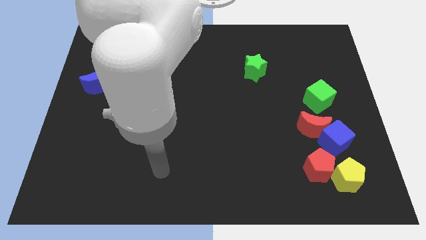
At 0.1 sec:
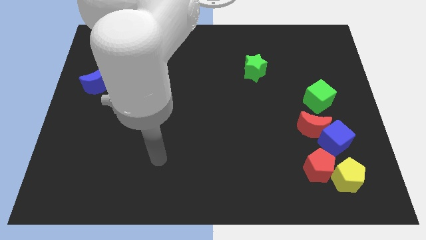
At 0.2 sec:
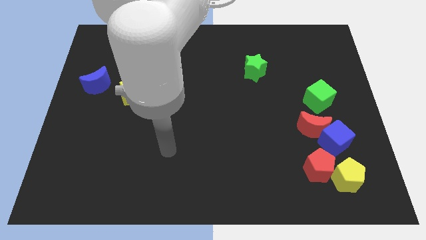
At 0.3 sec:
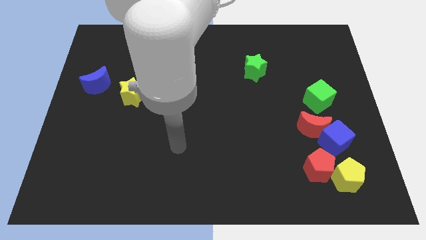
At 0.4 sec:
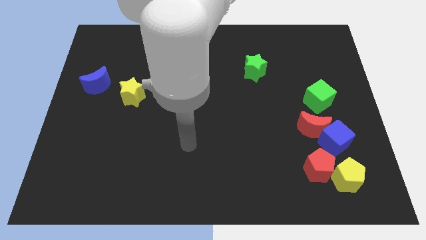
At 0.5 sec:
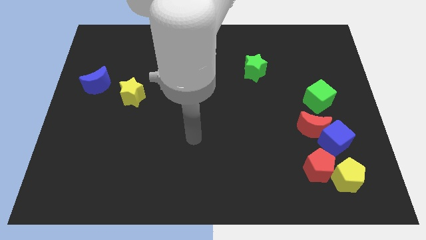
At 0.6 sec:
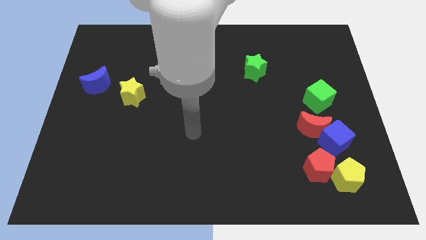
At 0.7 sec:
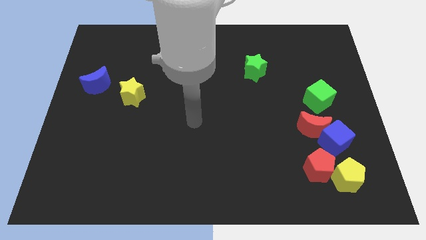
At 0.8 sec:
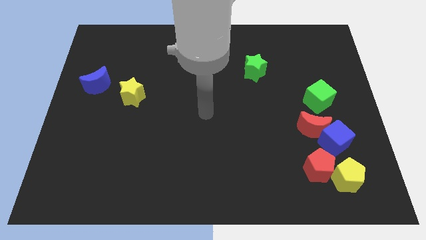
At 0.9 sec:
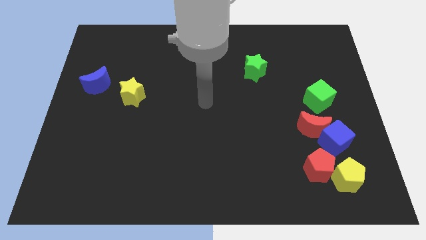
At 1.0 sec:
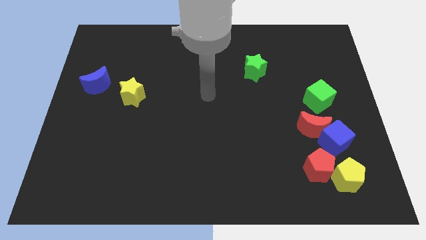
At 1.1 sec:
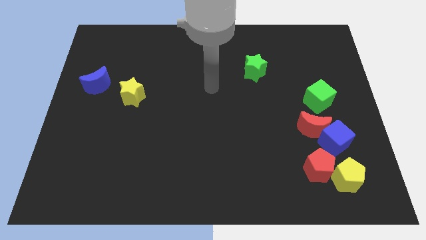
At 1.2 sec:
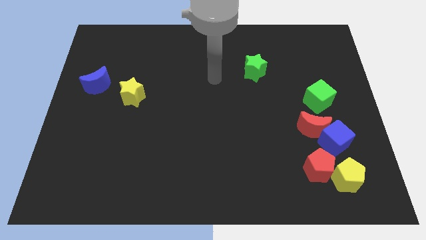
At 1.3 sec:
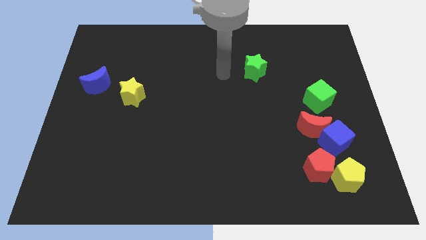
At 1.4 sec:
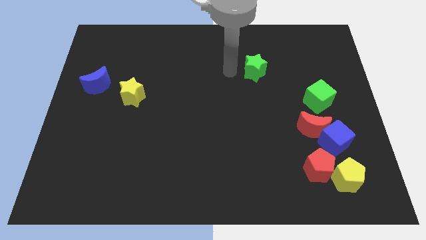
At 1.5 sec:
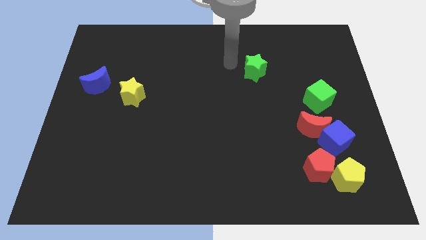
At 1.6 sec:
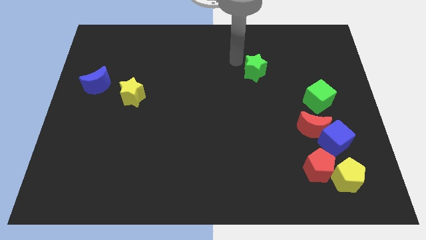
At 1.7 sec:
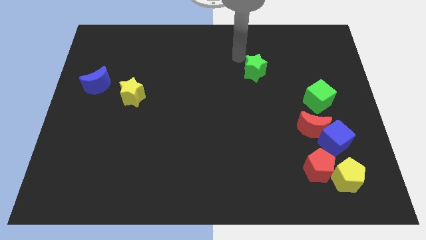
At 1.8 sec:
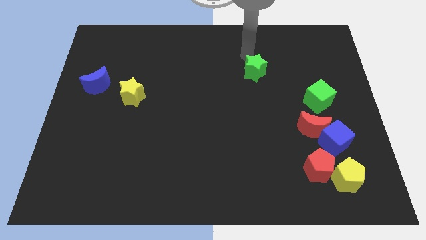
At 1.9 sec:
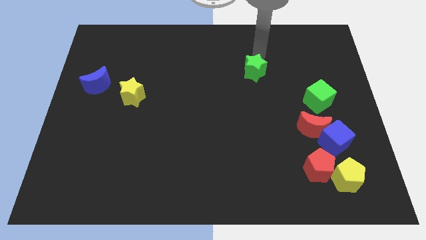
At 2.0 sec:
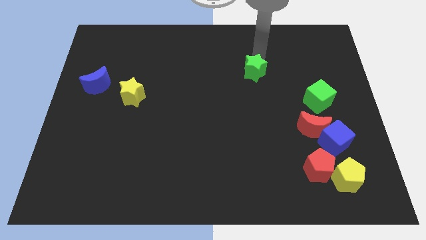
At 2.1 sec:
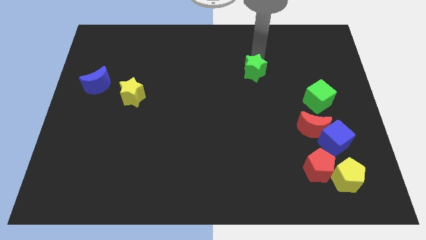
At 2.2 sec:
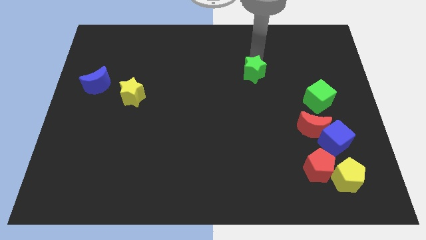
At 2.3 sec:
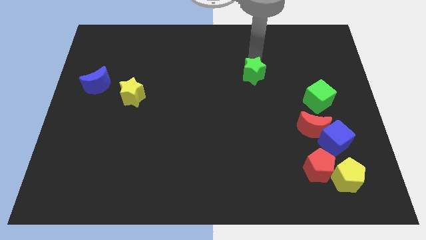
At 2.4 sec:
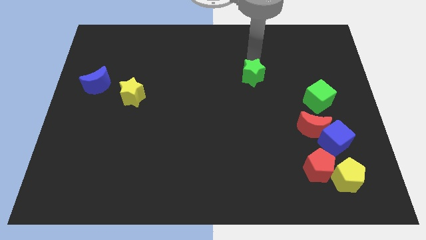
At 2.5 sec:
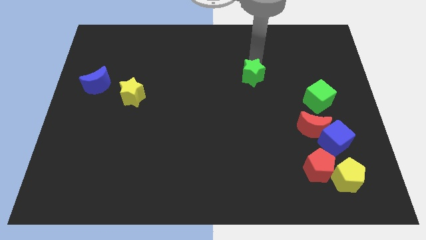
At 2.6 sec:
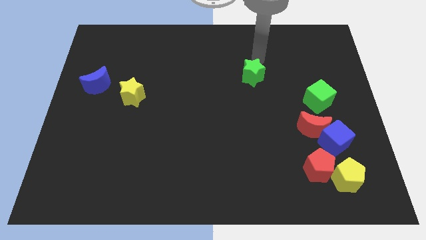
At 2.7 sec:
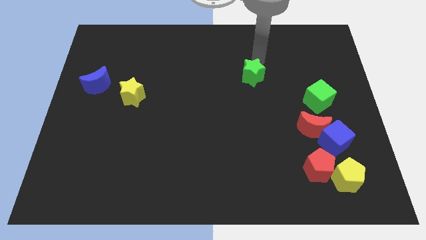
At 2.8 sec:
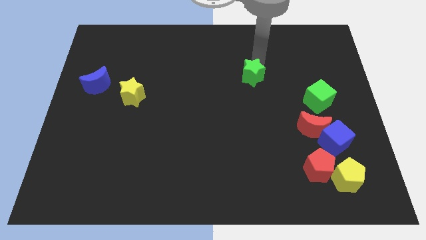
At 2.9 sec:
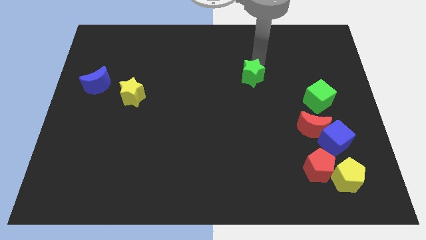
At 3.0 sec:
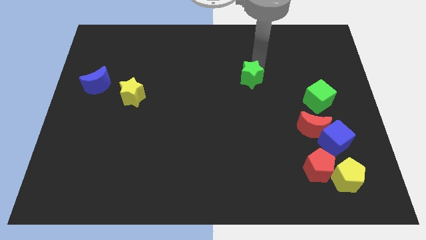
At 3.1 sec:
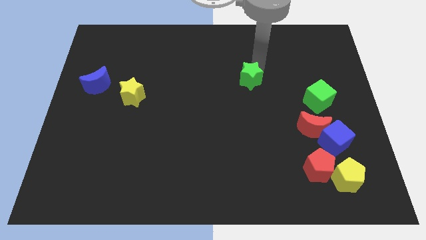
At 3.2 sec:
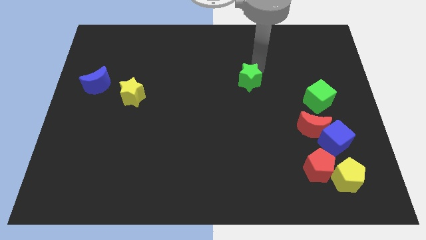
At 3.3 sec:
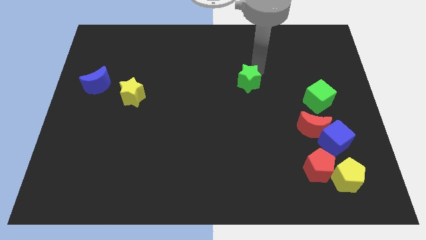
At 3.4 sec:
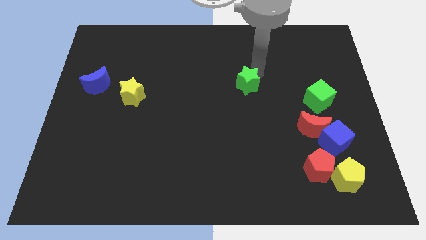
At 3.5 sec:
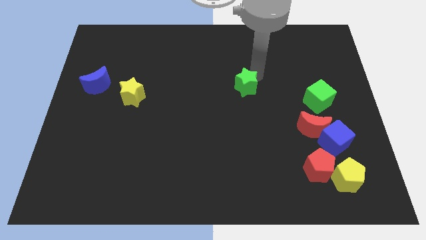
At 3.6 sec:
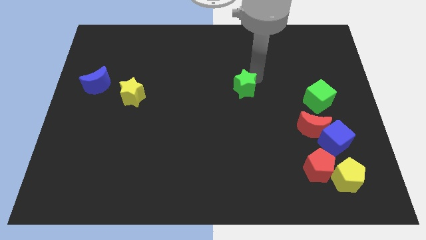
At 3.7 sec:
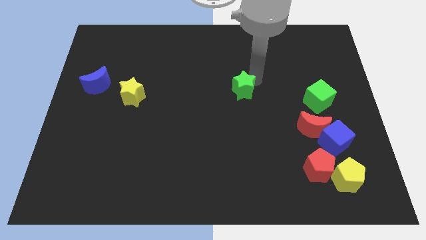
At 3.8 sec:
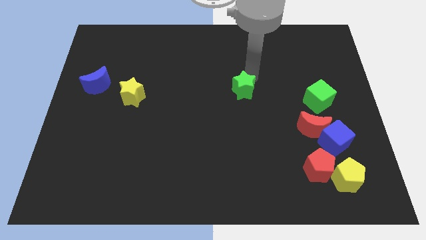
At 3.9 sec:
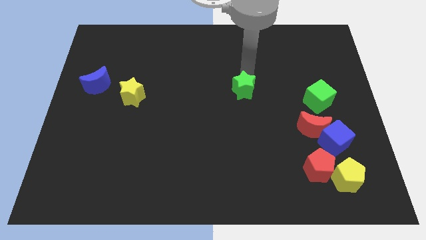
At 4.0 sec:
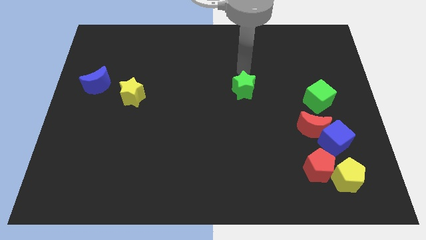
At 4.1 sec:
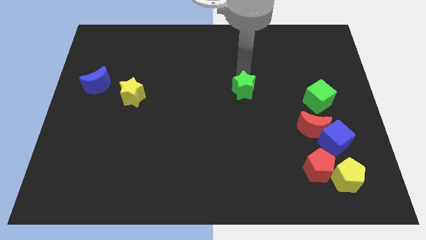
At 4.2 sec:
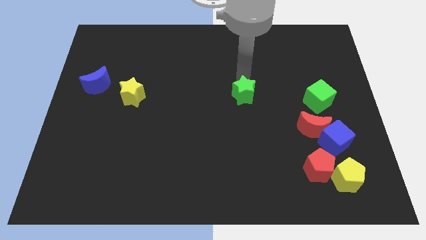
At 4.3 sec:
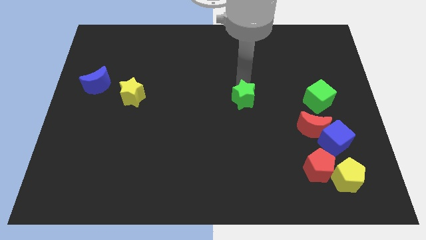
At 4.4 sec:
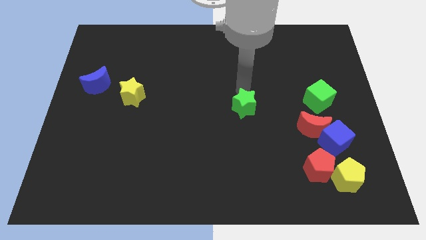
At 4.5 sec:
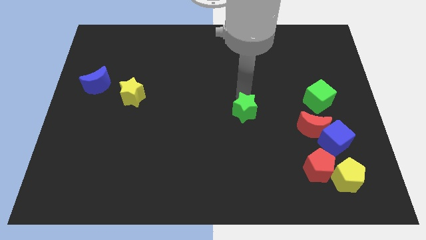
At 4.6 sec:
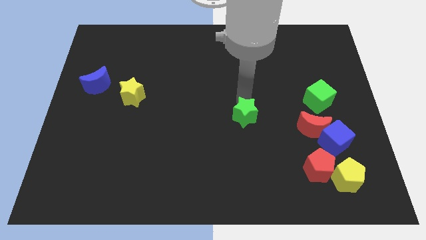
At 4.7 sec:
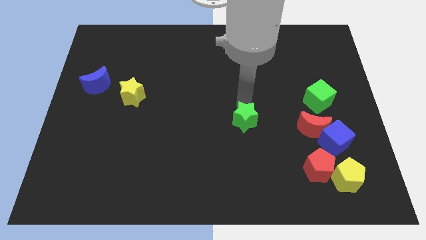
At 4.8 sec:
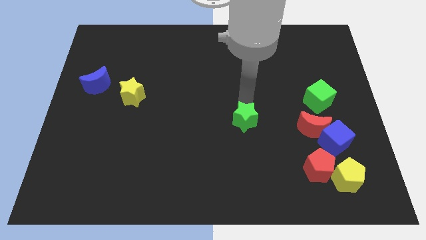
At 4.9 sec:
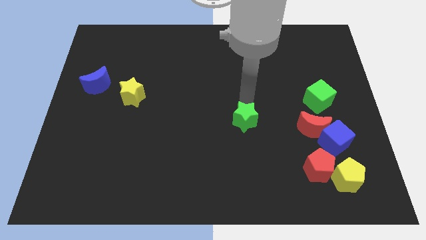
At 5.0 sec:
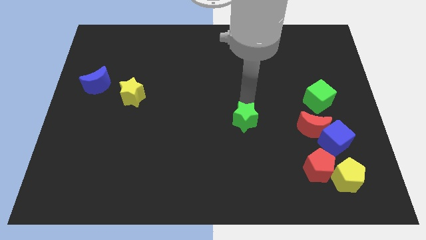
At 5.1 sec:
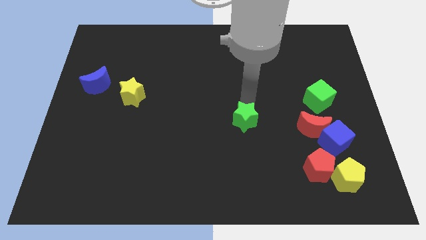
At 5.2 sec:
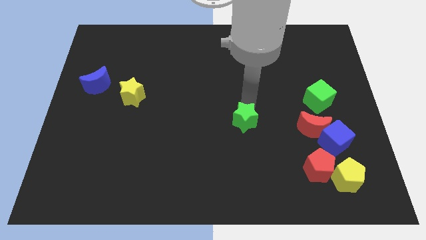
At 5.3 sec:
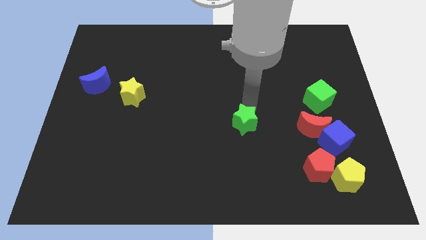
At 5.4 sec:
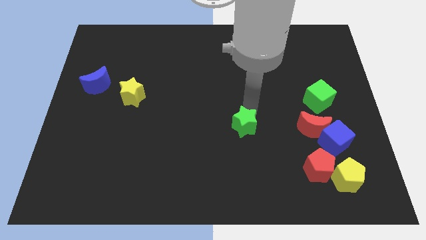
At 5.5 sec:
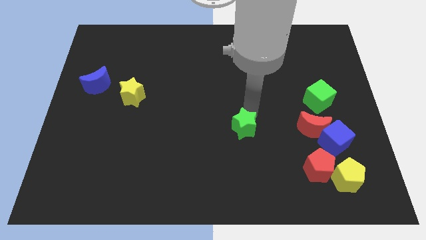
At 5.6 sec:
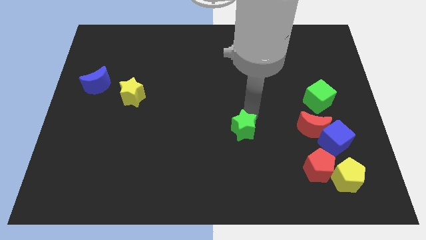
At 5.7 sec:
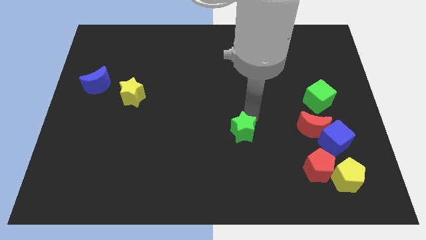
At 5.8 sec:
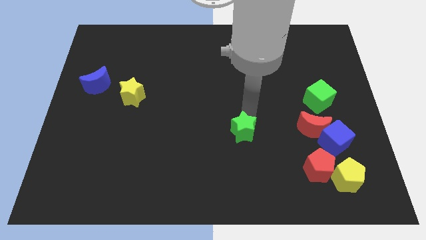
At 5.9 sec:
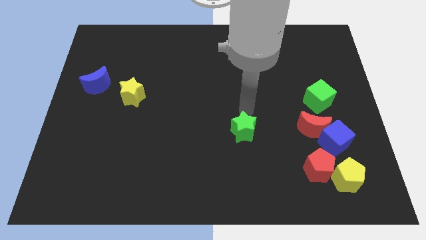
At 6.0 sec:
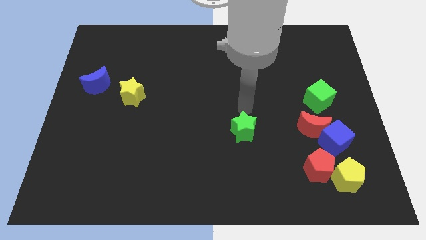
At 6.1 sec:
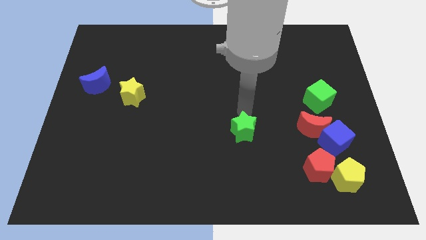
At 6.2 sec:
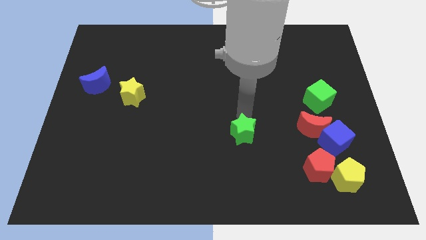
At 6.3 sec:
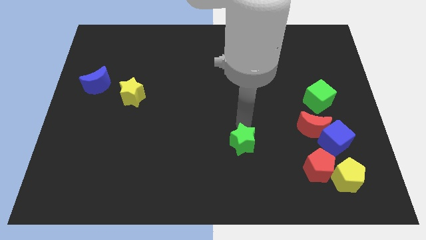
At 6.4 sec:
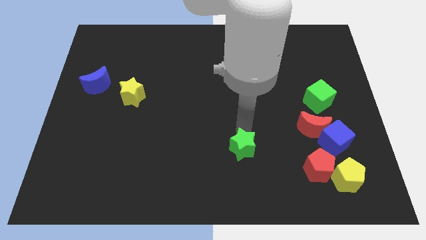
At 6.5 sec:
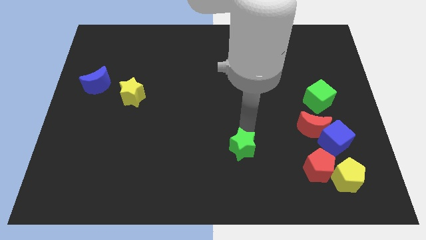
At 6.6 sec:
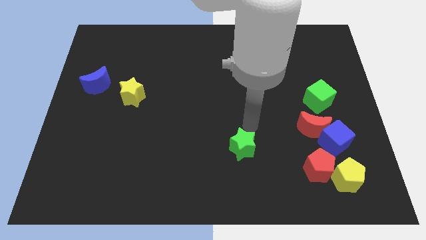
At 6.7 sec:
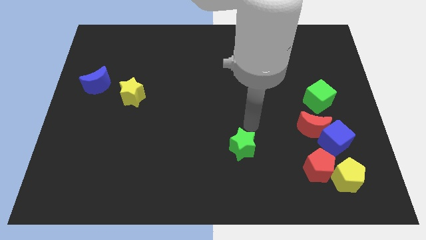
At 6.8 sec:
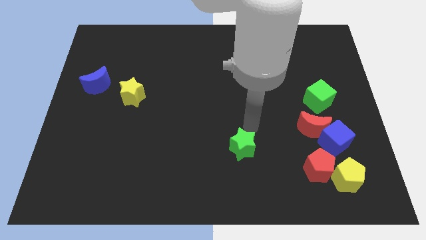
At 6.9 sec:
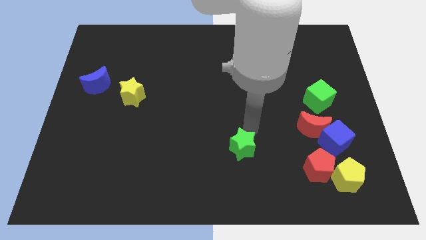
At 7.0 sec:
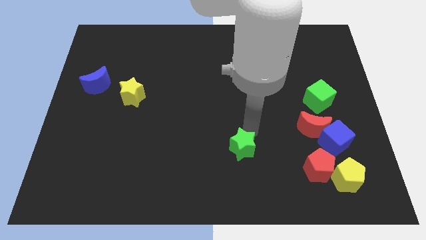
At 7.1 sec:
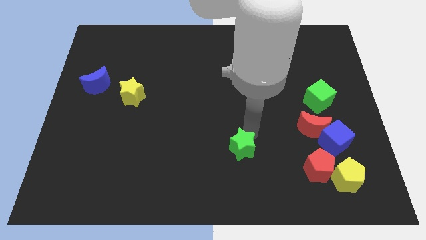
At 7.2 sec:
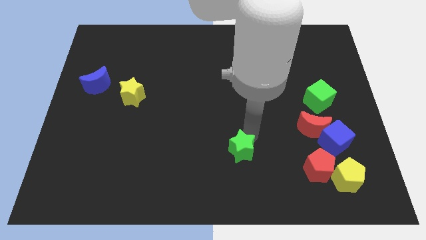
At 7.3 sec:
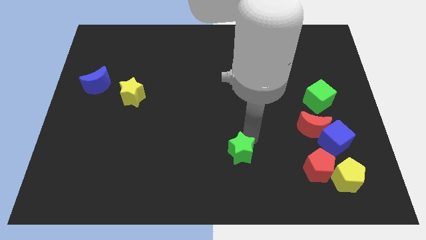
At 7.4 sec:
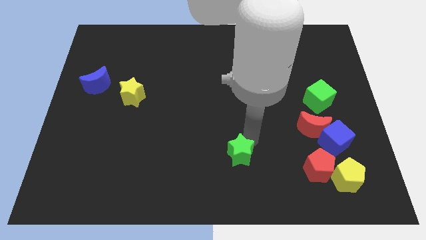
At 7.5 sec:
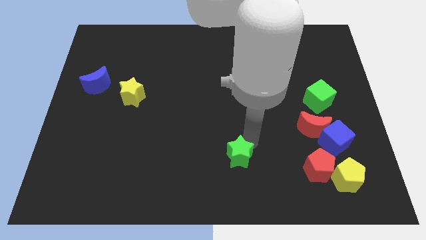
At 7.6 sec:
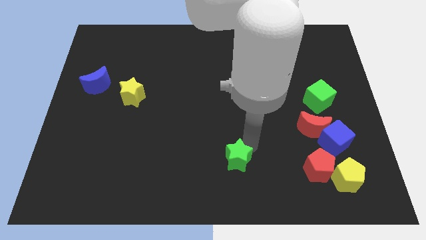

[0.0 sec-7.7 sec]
move the green star to the bottom
